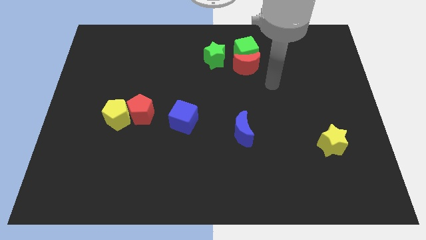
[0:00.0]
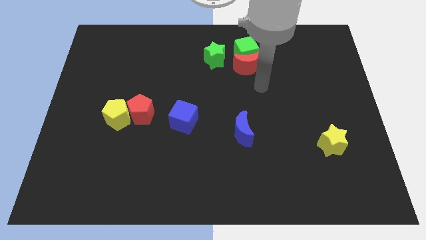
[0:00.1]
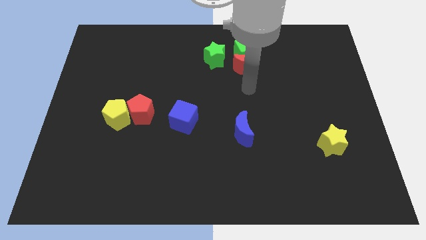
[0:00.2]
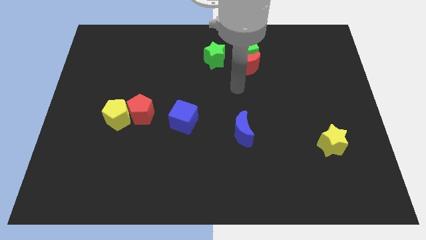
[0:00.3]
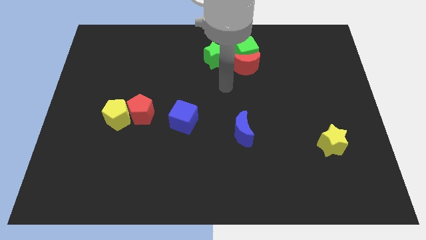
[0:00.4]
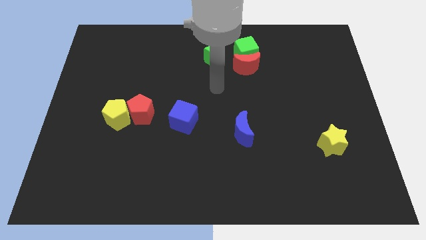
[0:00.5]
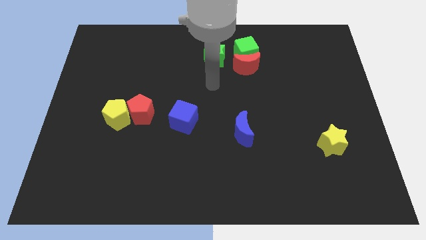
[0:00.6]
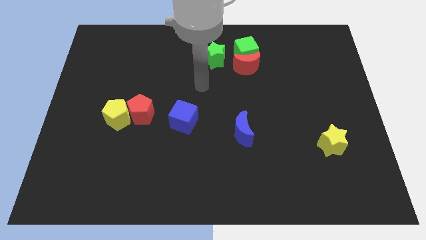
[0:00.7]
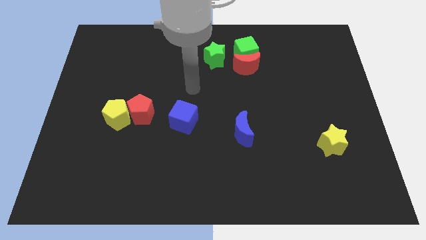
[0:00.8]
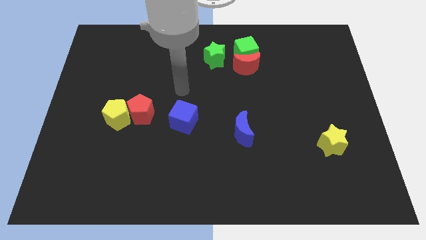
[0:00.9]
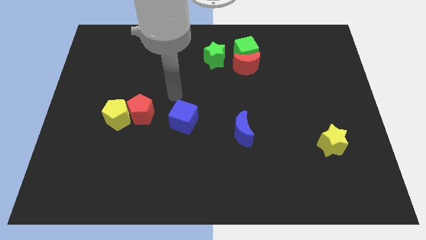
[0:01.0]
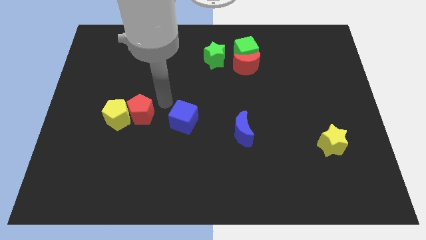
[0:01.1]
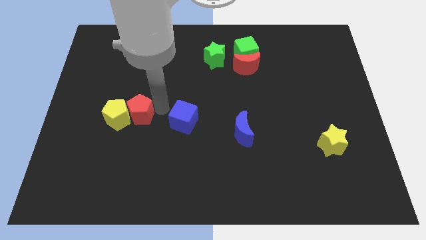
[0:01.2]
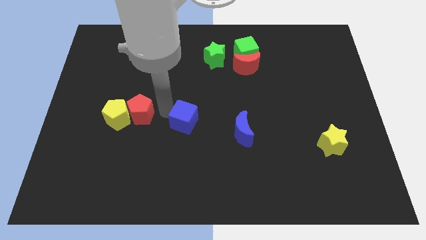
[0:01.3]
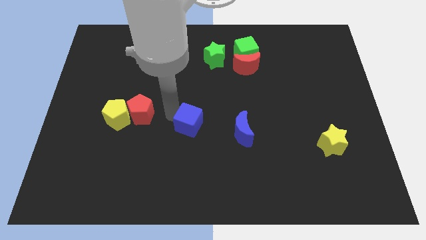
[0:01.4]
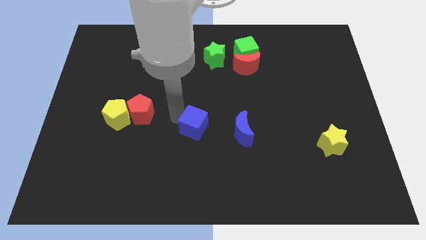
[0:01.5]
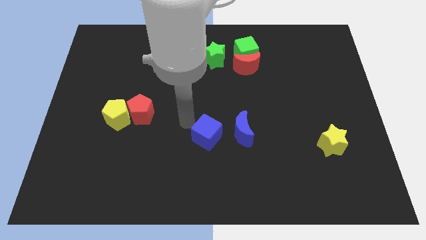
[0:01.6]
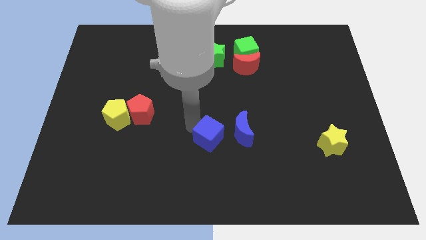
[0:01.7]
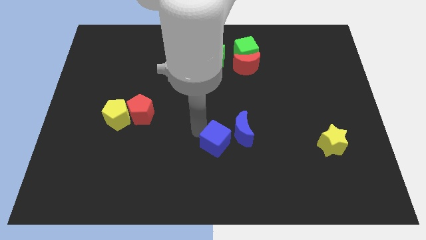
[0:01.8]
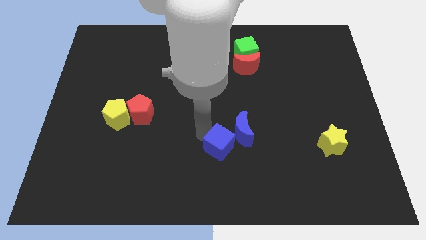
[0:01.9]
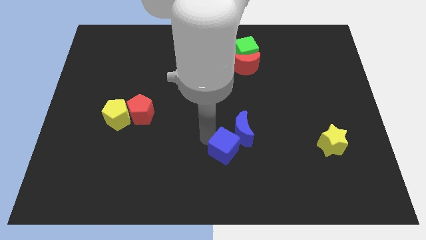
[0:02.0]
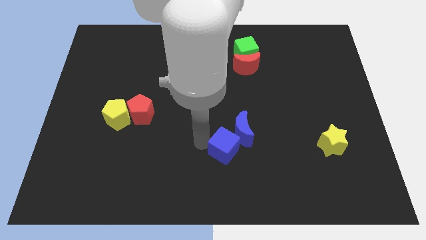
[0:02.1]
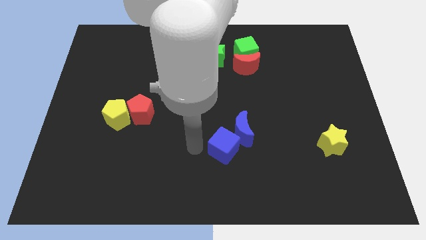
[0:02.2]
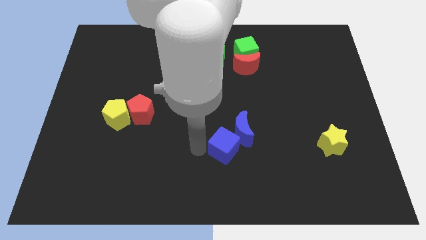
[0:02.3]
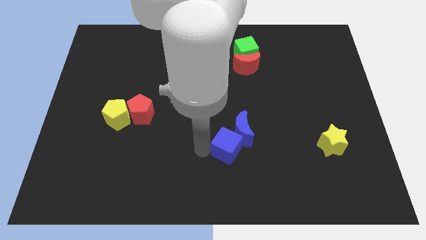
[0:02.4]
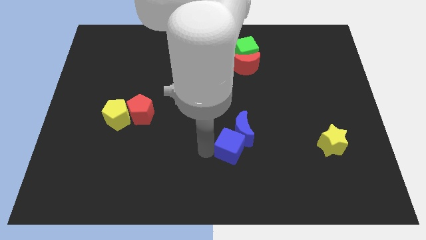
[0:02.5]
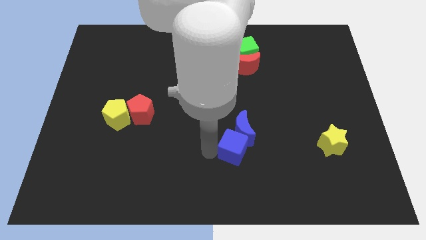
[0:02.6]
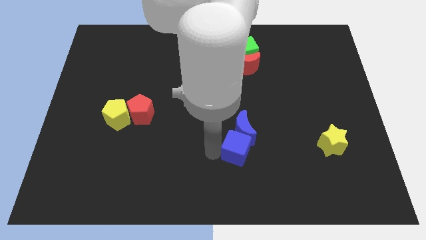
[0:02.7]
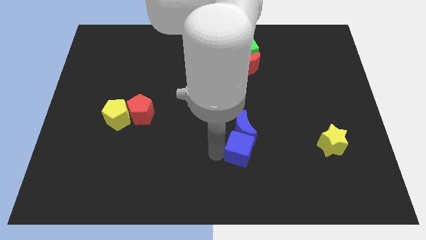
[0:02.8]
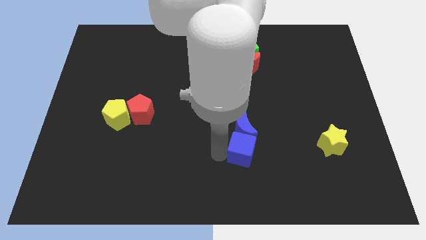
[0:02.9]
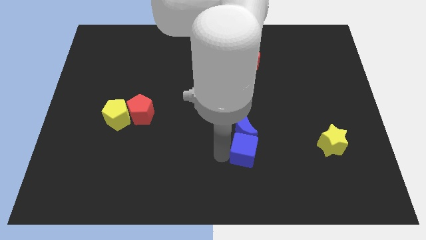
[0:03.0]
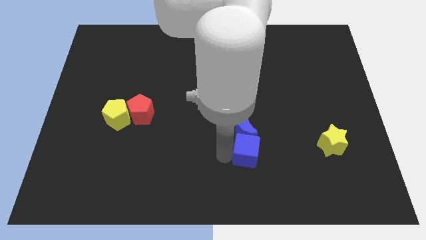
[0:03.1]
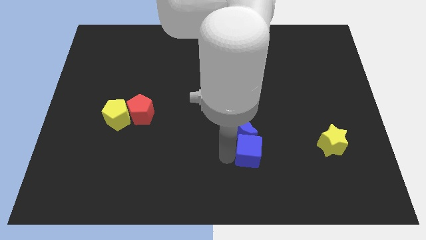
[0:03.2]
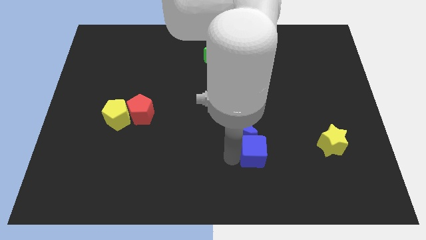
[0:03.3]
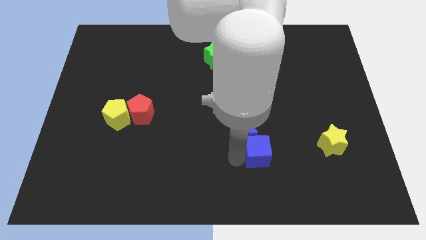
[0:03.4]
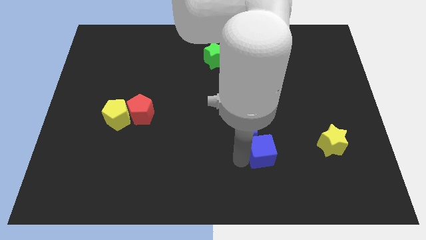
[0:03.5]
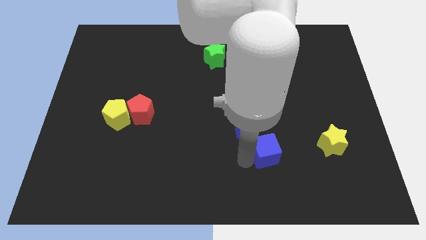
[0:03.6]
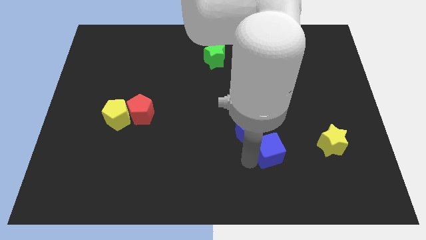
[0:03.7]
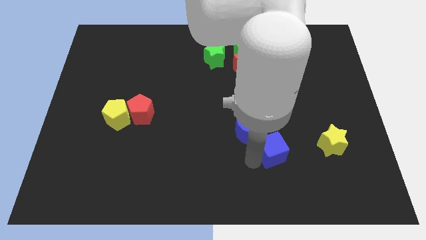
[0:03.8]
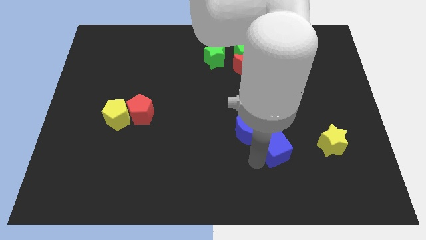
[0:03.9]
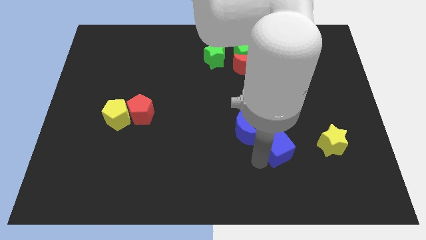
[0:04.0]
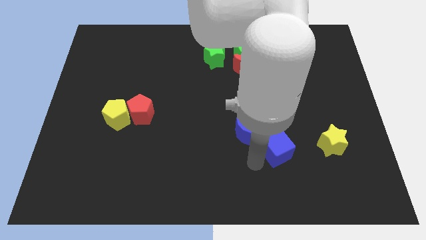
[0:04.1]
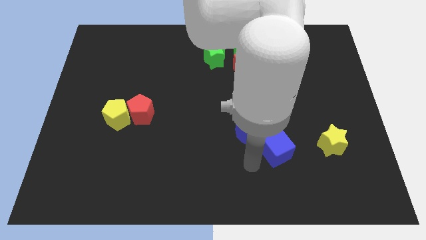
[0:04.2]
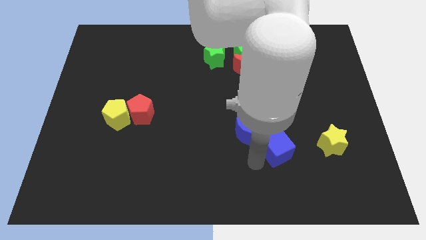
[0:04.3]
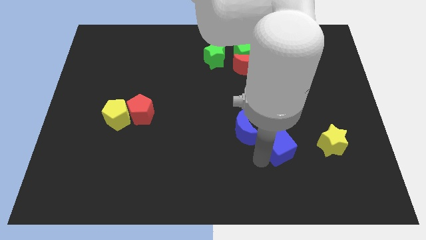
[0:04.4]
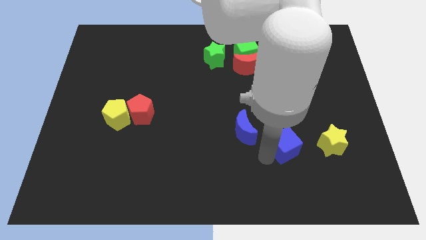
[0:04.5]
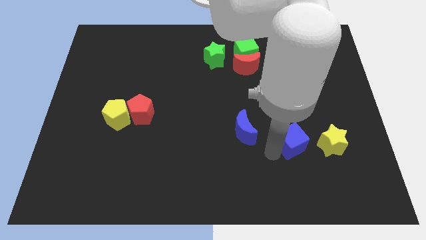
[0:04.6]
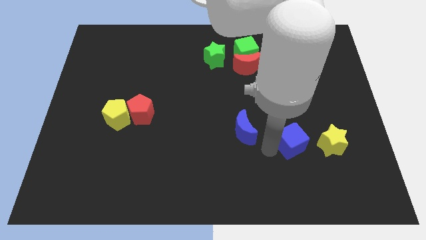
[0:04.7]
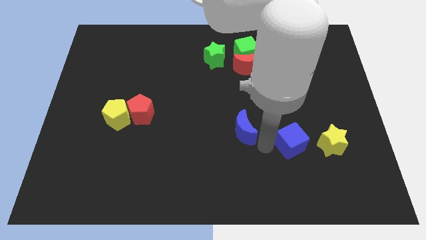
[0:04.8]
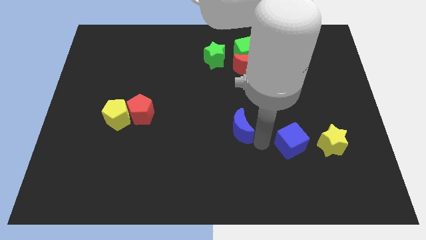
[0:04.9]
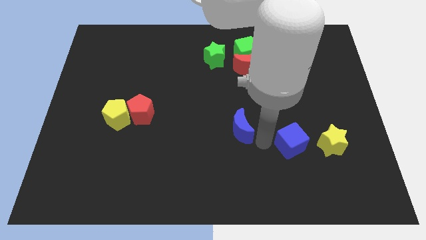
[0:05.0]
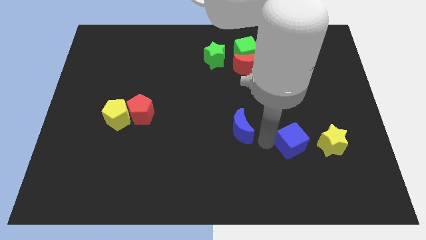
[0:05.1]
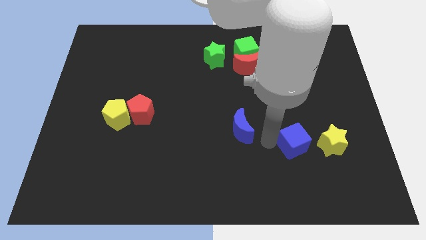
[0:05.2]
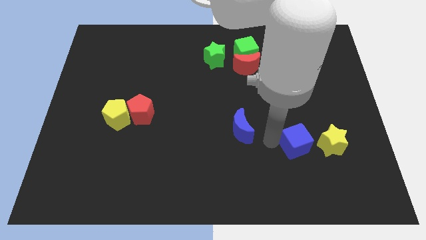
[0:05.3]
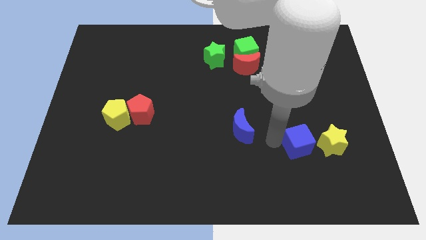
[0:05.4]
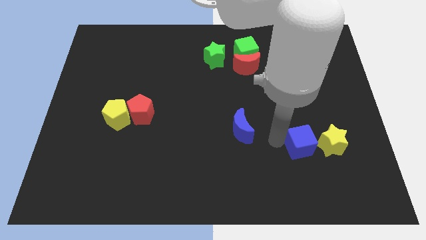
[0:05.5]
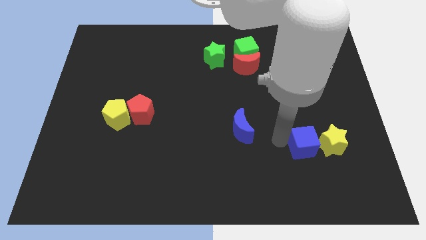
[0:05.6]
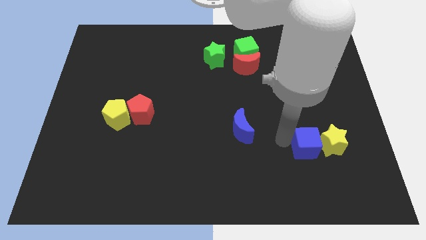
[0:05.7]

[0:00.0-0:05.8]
put the blue cube close to the yellow star

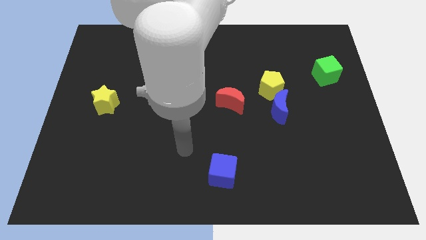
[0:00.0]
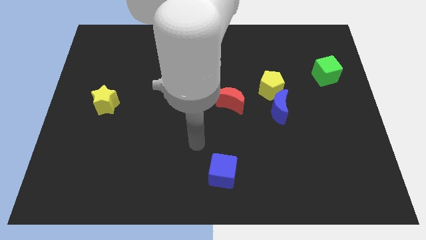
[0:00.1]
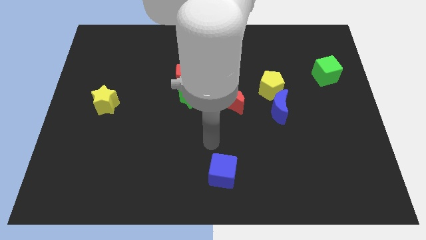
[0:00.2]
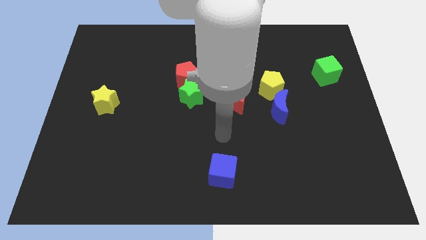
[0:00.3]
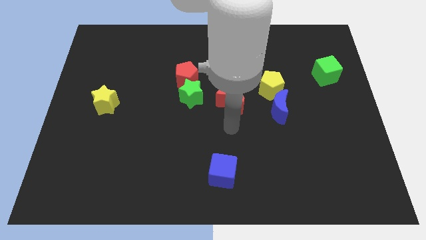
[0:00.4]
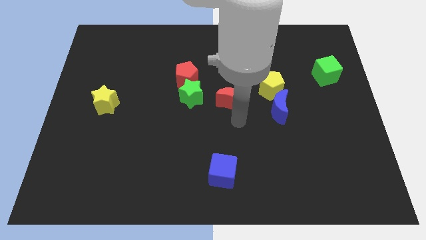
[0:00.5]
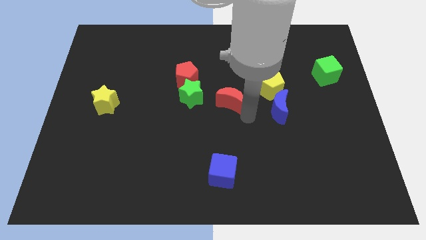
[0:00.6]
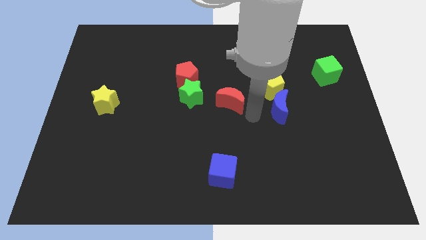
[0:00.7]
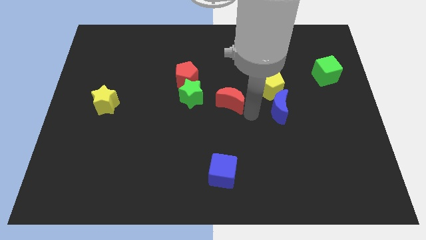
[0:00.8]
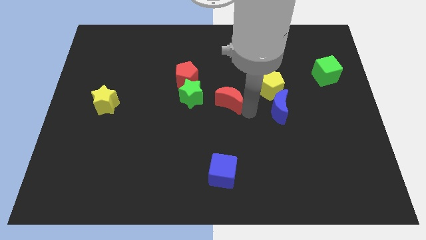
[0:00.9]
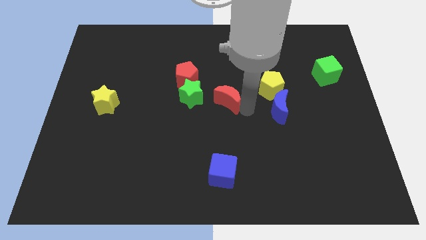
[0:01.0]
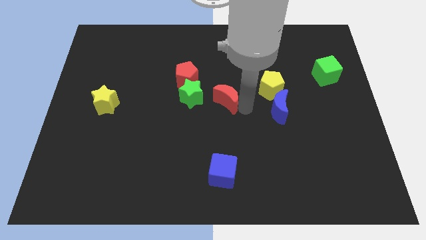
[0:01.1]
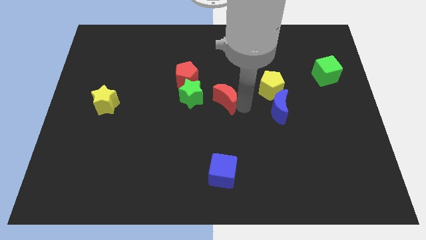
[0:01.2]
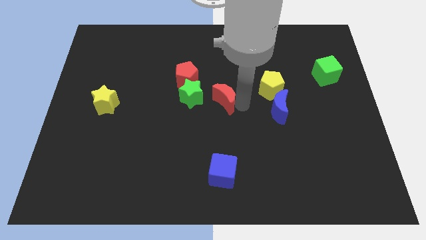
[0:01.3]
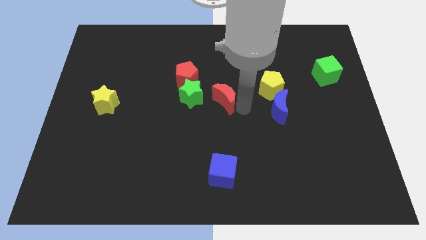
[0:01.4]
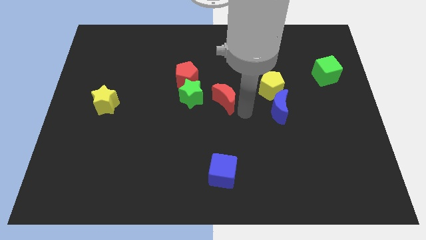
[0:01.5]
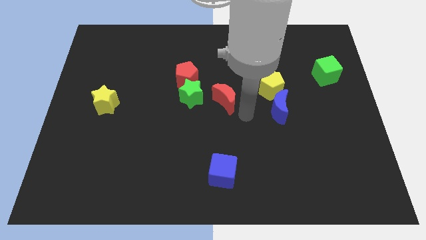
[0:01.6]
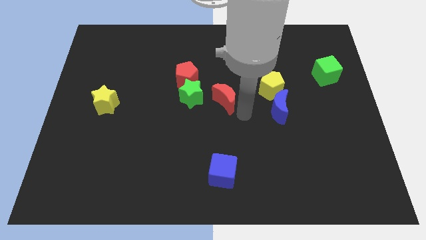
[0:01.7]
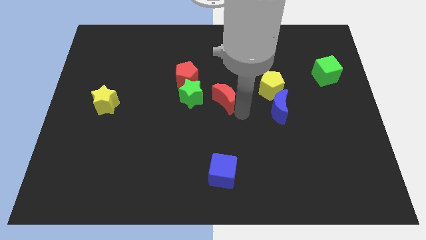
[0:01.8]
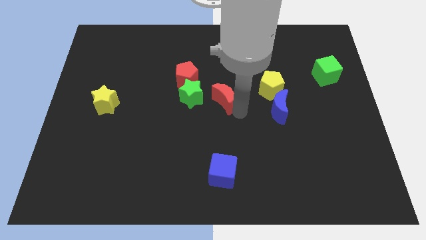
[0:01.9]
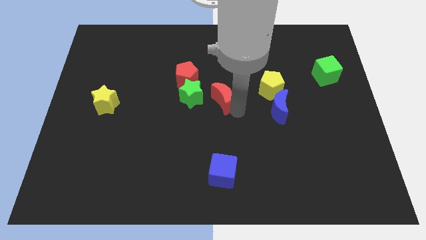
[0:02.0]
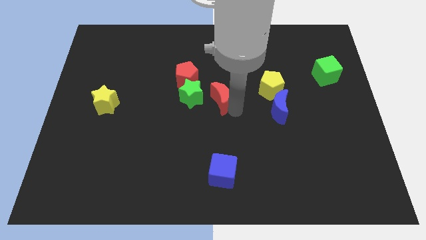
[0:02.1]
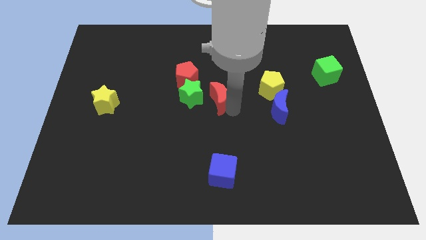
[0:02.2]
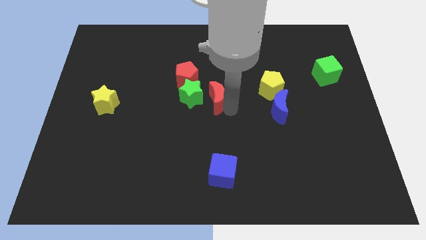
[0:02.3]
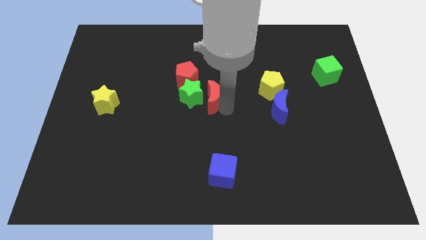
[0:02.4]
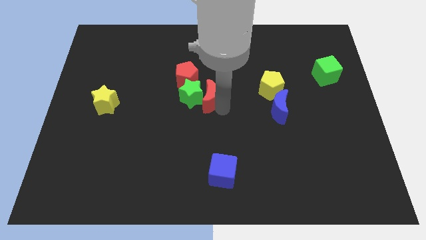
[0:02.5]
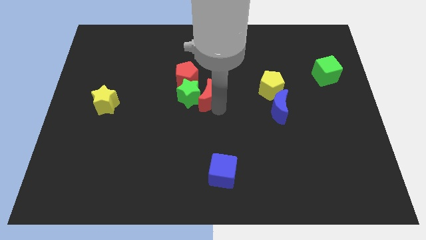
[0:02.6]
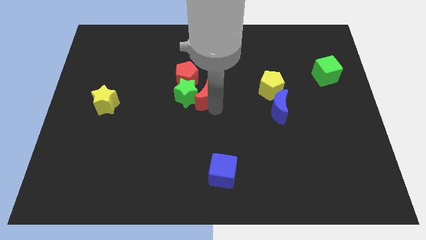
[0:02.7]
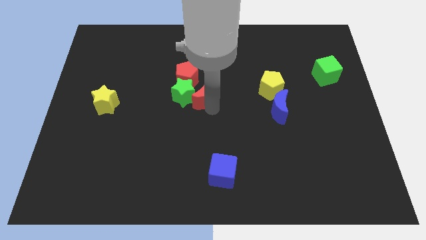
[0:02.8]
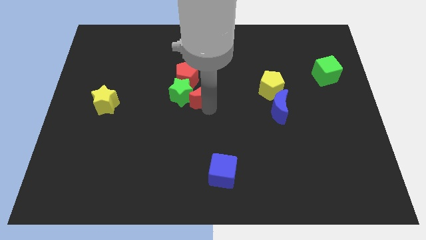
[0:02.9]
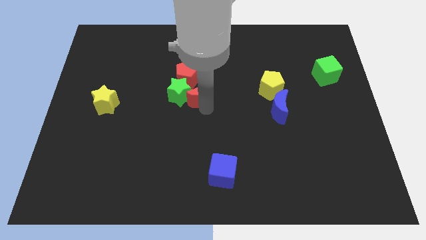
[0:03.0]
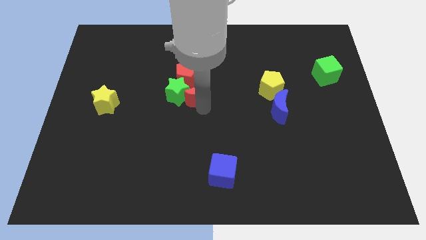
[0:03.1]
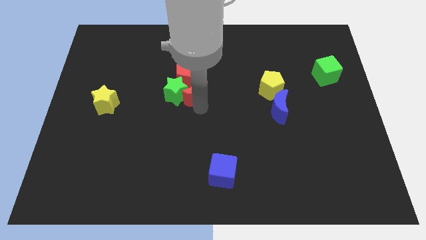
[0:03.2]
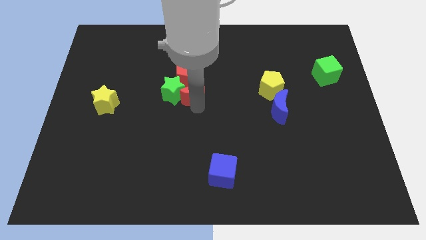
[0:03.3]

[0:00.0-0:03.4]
slide the red moon next to the red pentagon
